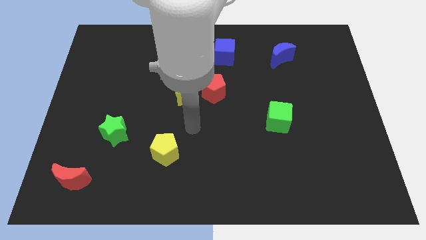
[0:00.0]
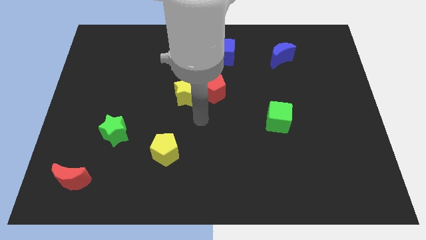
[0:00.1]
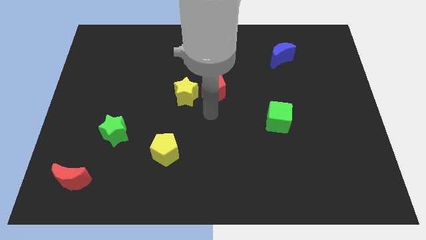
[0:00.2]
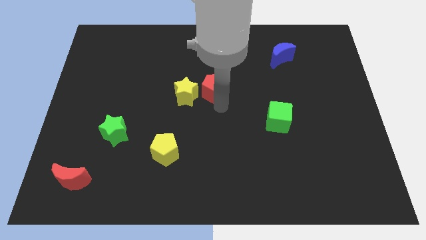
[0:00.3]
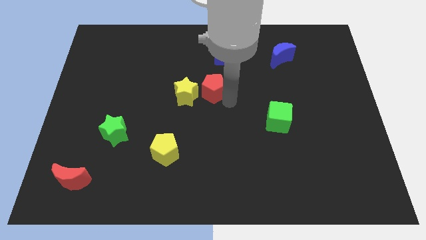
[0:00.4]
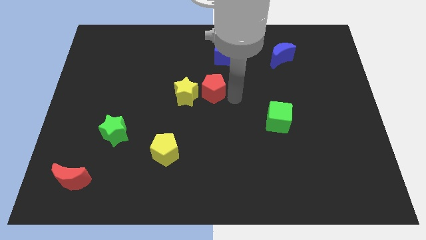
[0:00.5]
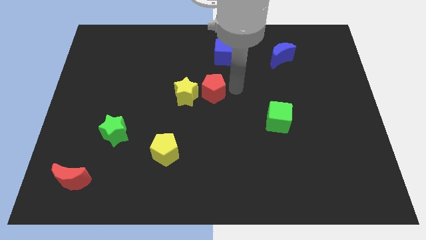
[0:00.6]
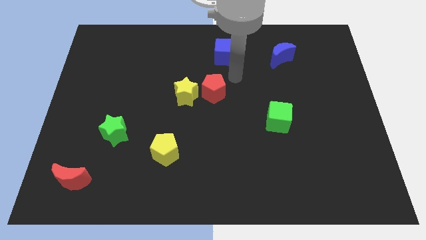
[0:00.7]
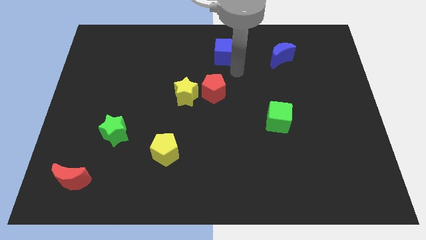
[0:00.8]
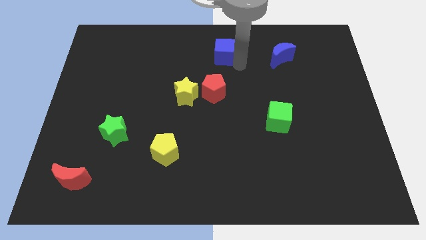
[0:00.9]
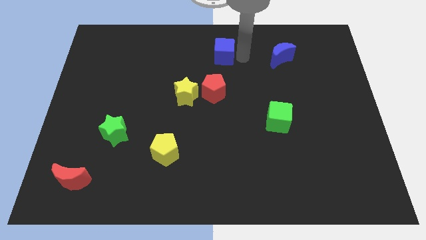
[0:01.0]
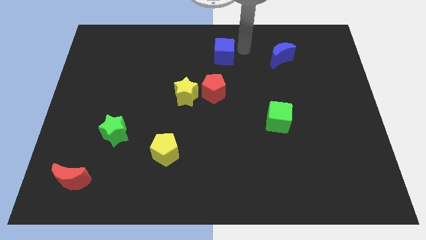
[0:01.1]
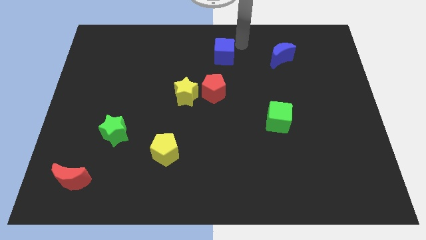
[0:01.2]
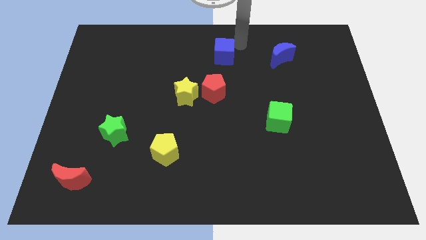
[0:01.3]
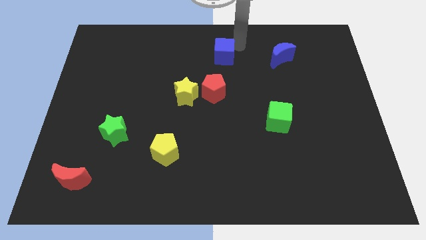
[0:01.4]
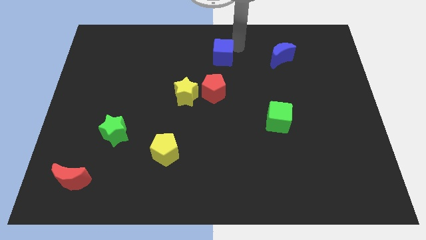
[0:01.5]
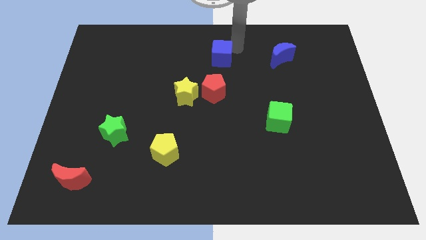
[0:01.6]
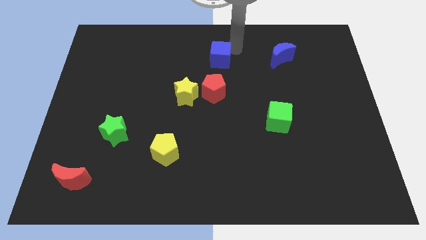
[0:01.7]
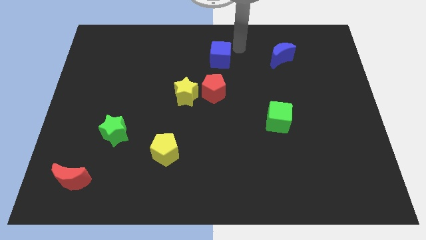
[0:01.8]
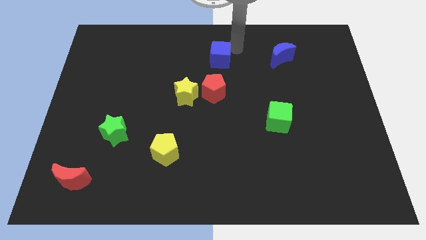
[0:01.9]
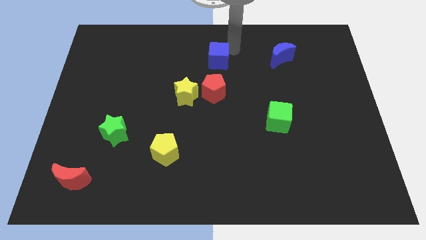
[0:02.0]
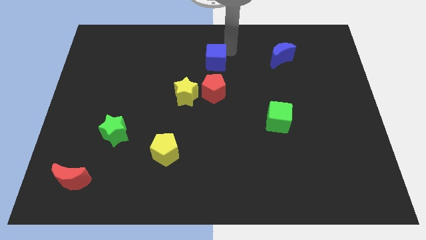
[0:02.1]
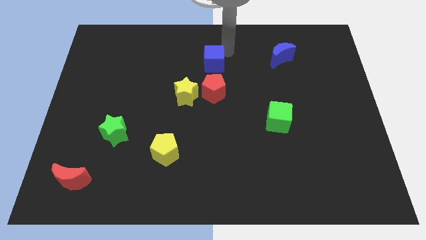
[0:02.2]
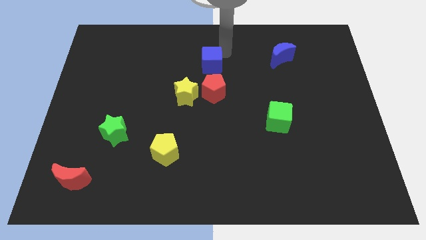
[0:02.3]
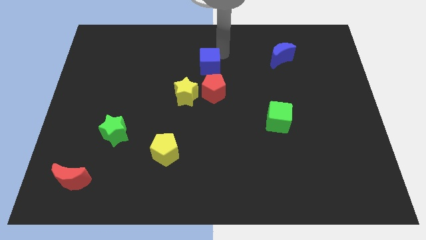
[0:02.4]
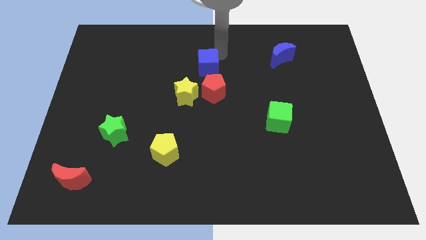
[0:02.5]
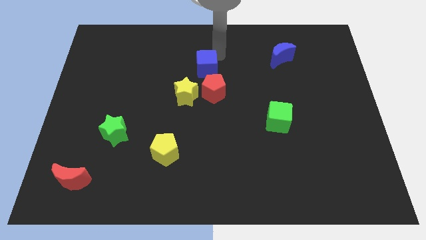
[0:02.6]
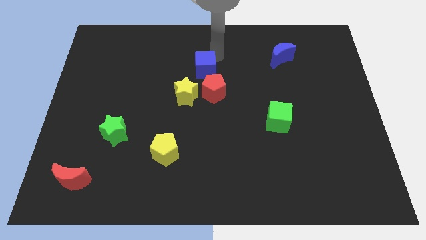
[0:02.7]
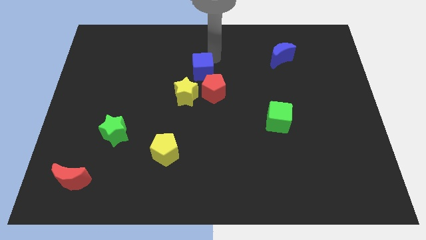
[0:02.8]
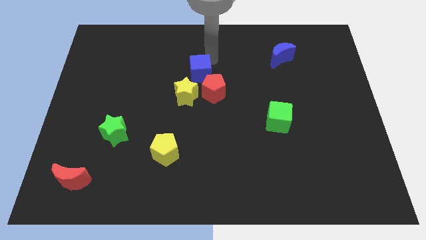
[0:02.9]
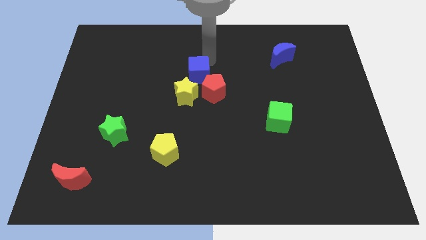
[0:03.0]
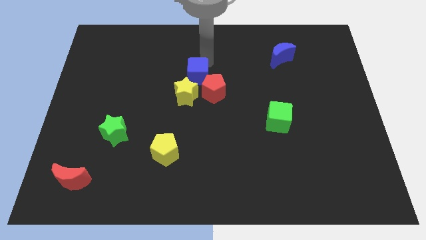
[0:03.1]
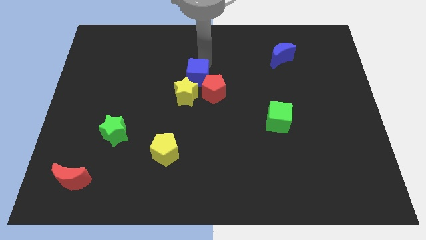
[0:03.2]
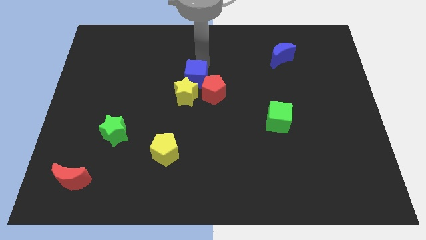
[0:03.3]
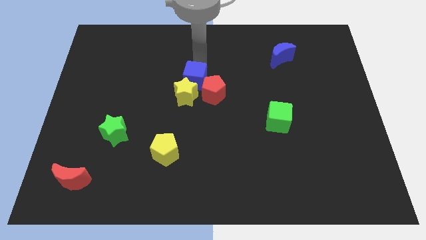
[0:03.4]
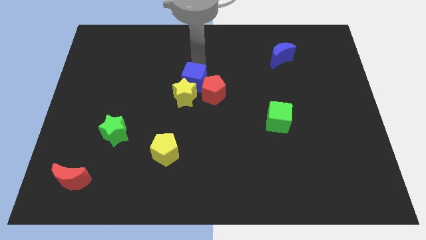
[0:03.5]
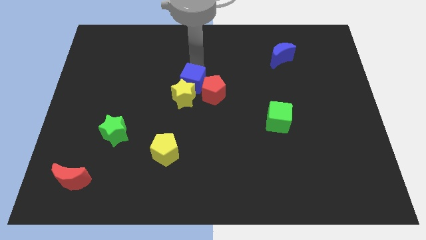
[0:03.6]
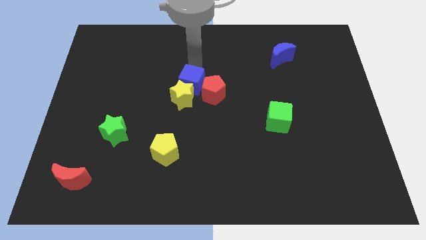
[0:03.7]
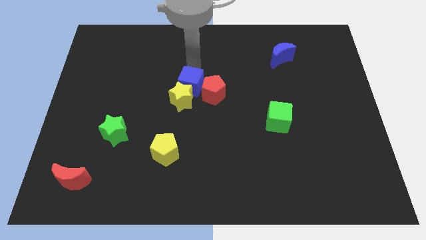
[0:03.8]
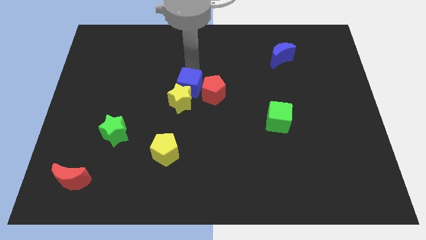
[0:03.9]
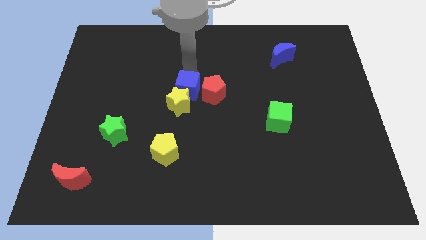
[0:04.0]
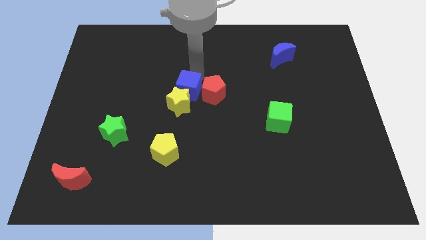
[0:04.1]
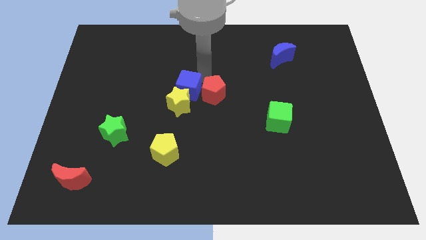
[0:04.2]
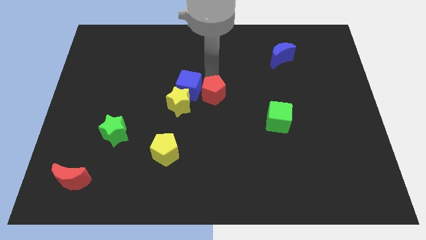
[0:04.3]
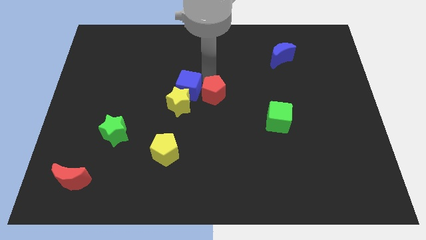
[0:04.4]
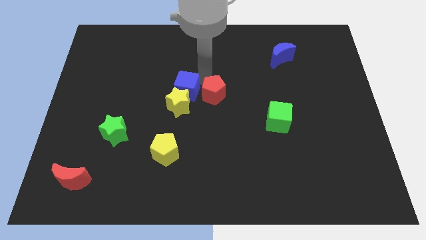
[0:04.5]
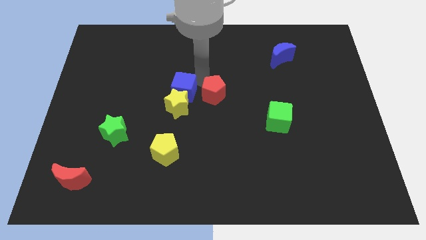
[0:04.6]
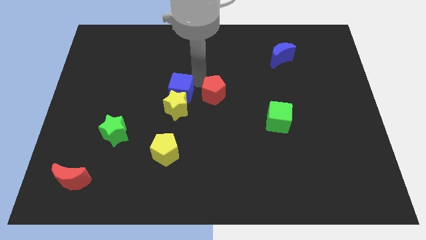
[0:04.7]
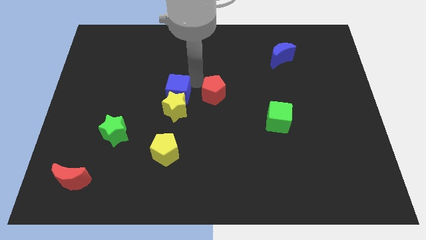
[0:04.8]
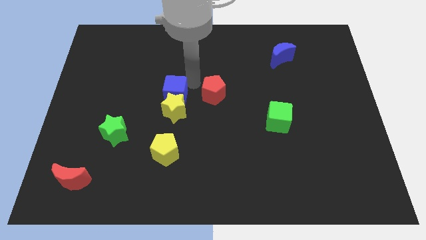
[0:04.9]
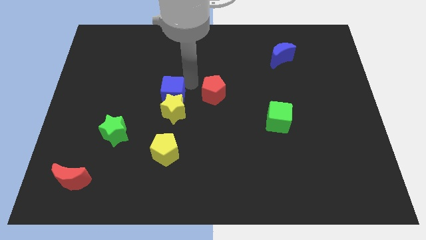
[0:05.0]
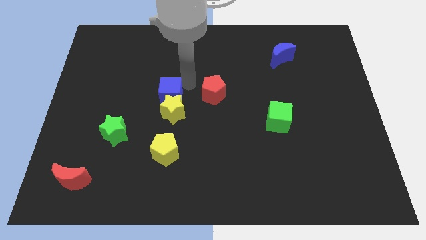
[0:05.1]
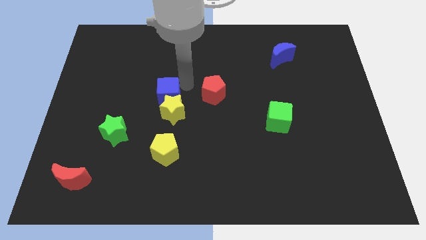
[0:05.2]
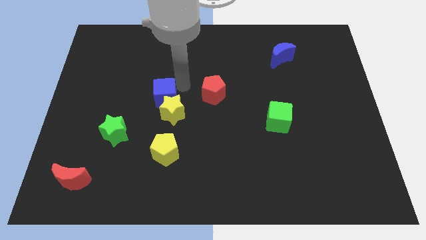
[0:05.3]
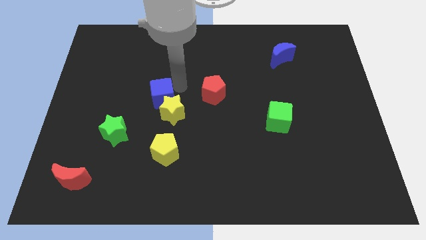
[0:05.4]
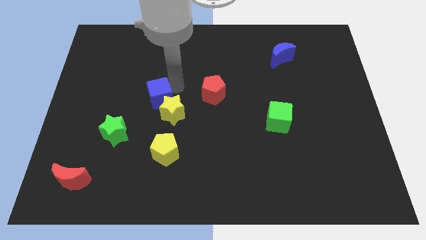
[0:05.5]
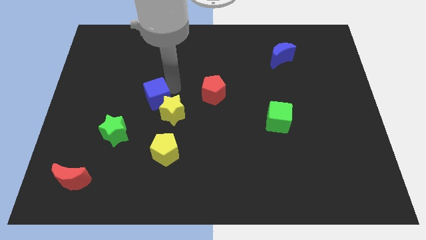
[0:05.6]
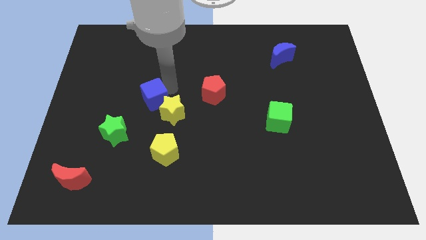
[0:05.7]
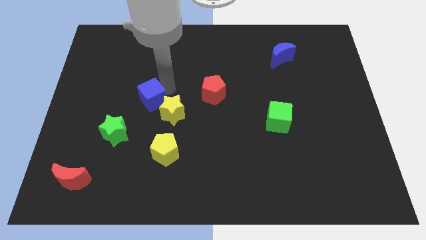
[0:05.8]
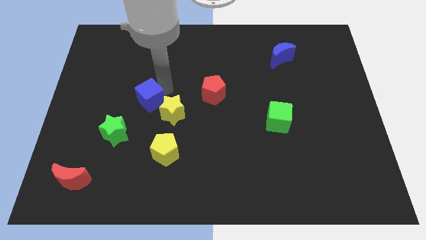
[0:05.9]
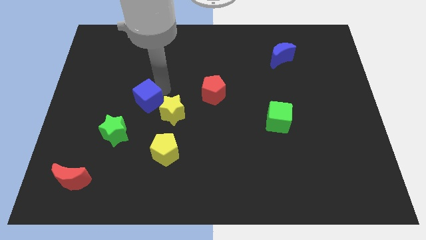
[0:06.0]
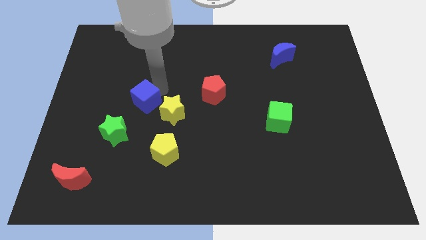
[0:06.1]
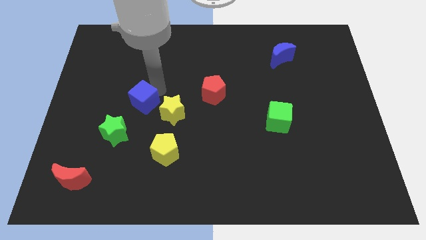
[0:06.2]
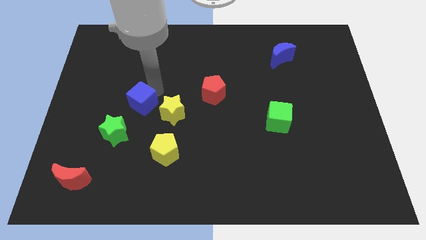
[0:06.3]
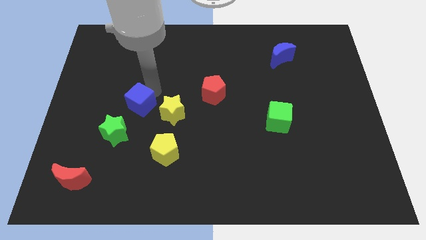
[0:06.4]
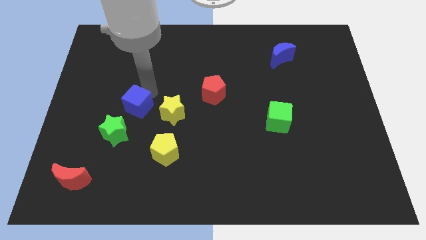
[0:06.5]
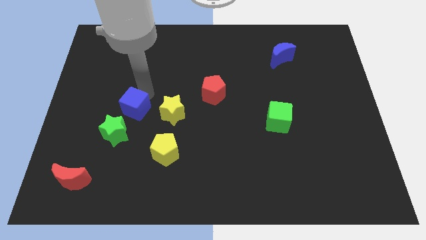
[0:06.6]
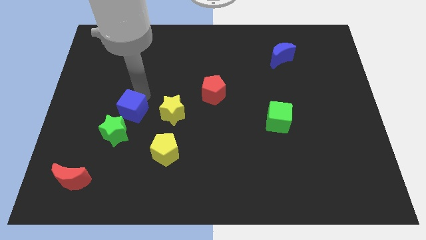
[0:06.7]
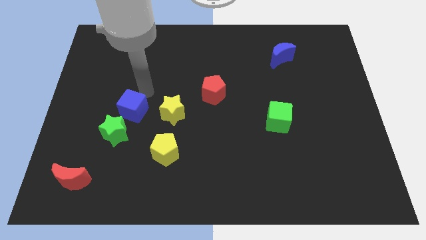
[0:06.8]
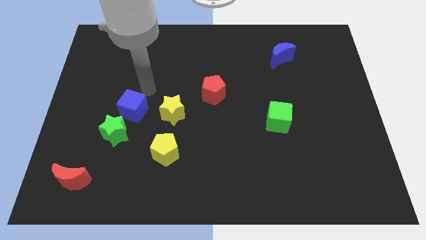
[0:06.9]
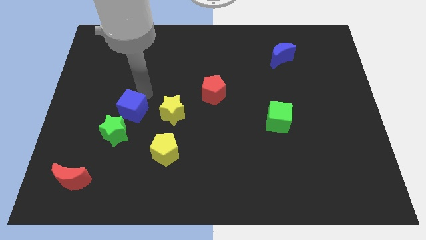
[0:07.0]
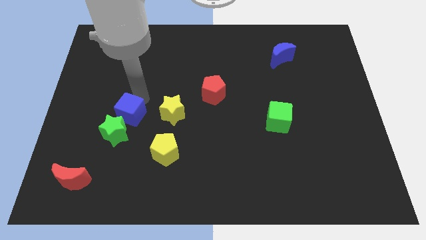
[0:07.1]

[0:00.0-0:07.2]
slide the blue cube towards the green star
